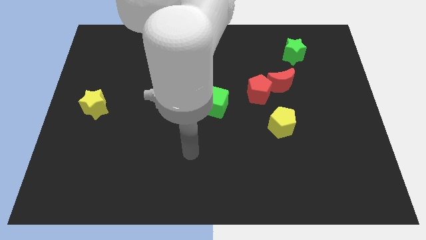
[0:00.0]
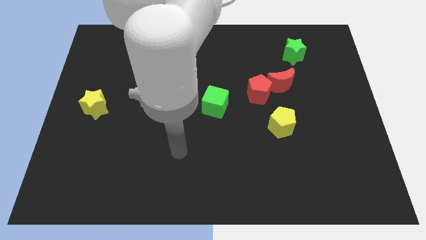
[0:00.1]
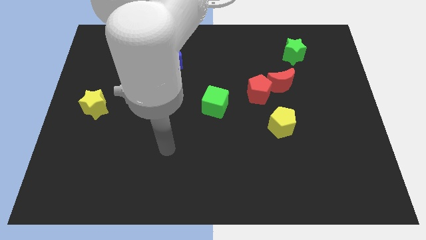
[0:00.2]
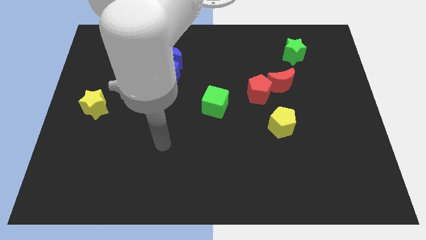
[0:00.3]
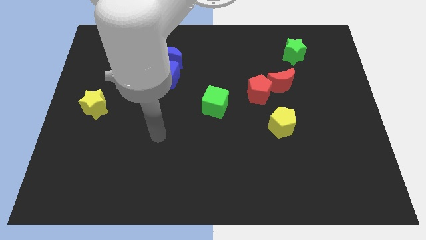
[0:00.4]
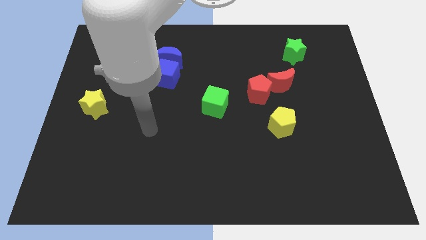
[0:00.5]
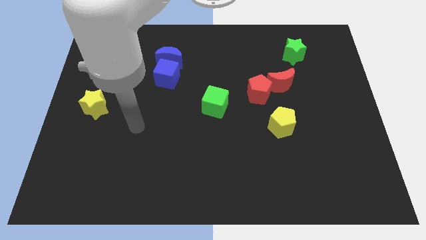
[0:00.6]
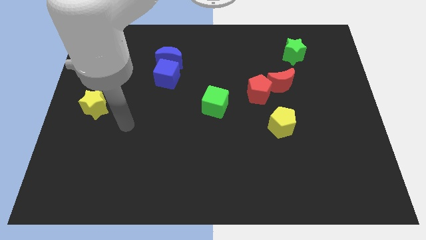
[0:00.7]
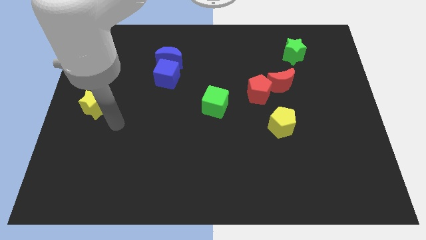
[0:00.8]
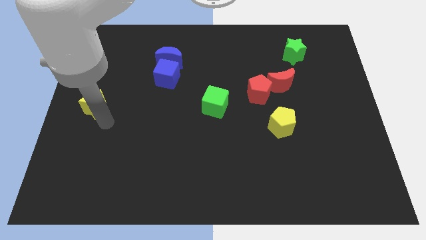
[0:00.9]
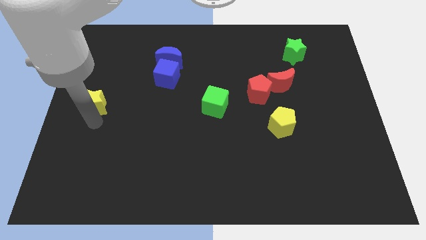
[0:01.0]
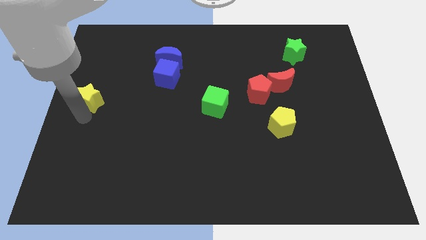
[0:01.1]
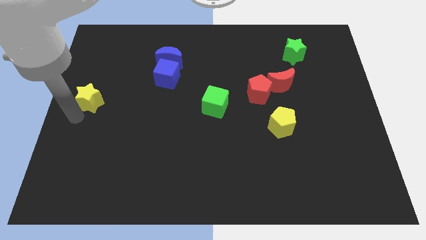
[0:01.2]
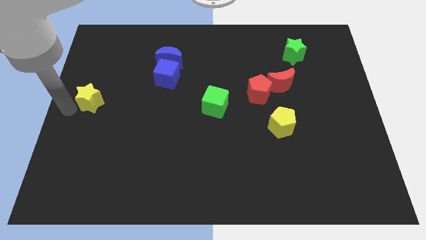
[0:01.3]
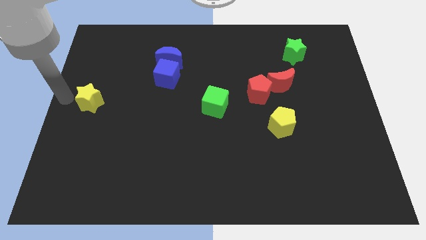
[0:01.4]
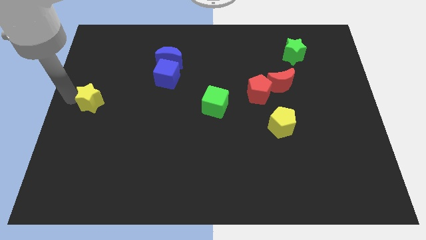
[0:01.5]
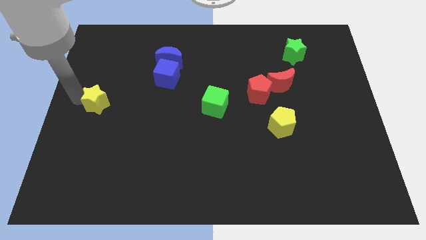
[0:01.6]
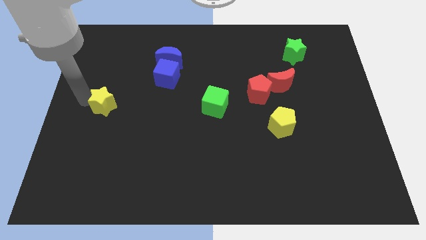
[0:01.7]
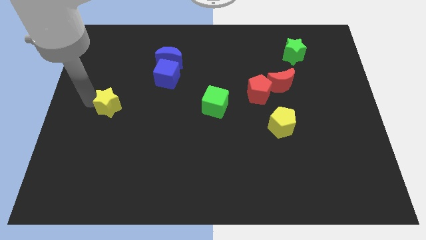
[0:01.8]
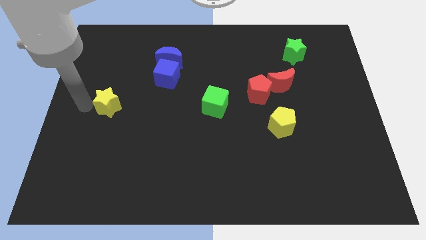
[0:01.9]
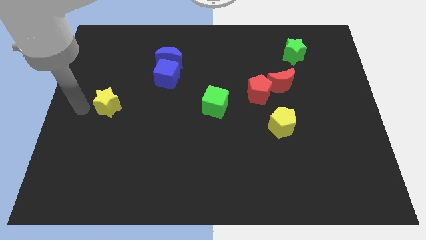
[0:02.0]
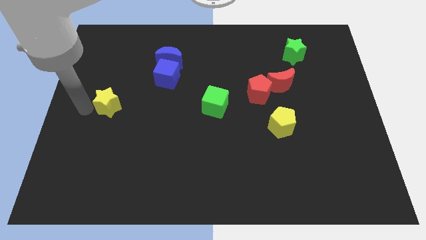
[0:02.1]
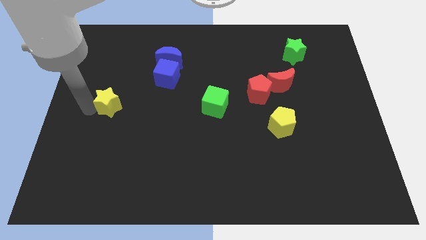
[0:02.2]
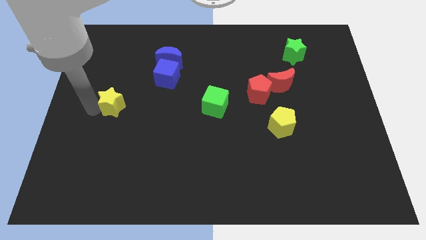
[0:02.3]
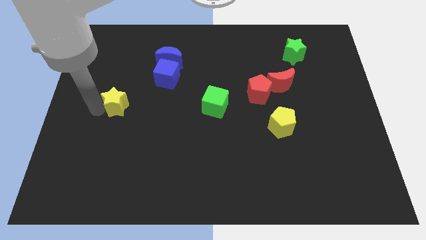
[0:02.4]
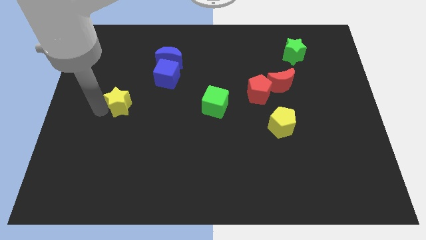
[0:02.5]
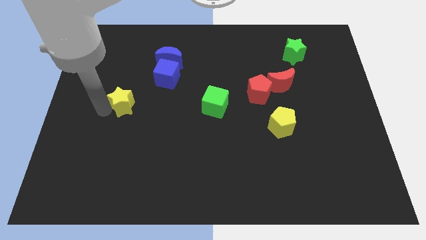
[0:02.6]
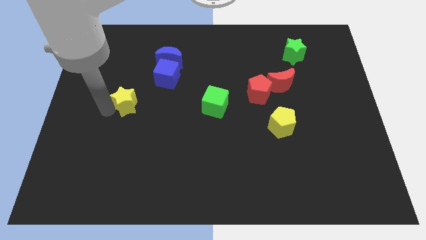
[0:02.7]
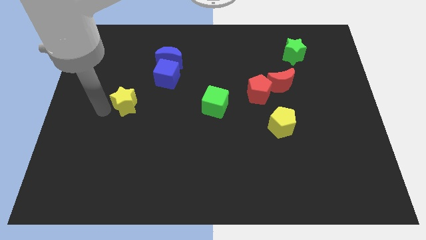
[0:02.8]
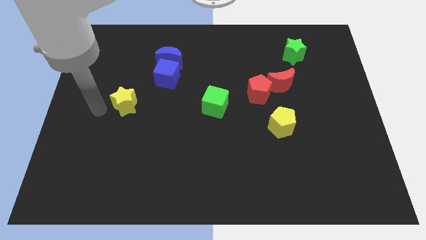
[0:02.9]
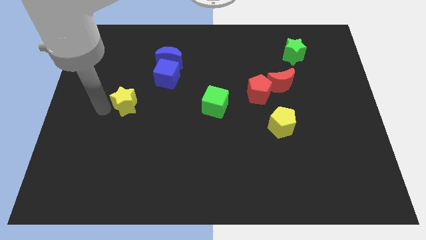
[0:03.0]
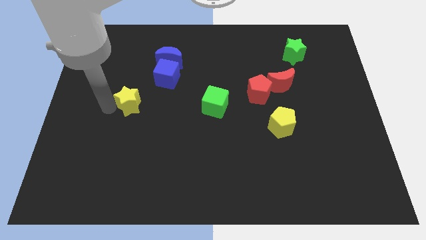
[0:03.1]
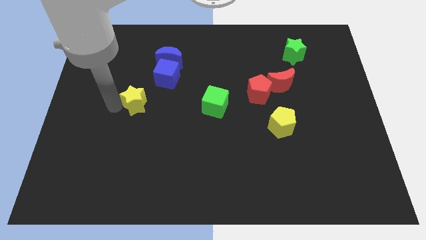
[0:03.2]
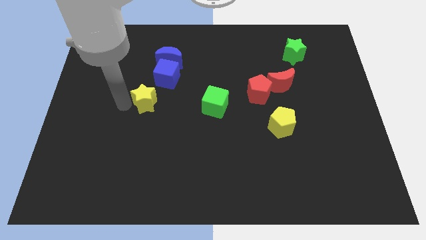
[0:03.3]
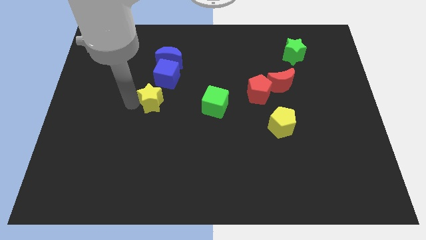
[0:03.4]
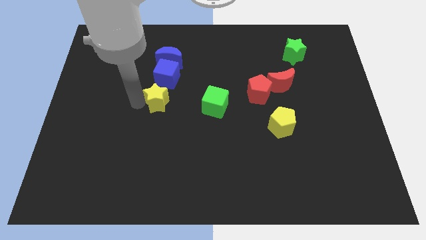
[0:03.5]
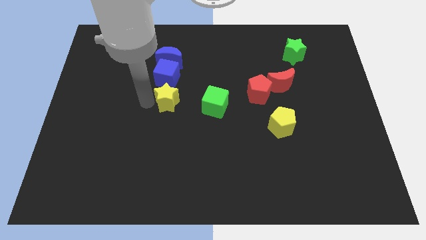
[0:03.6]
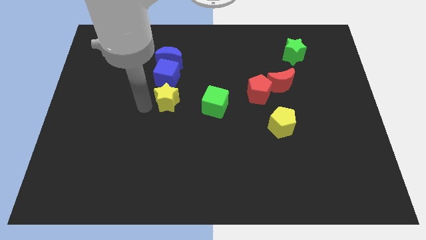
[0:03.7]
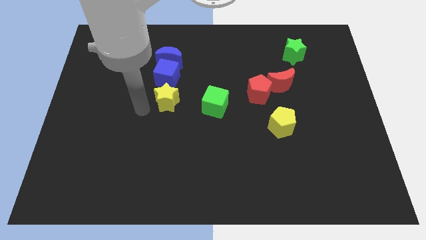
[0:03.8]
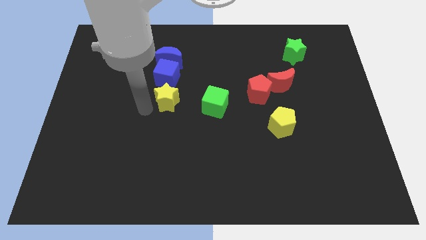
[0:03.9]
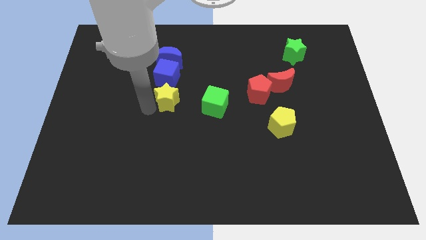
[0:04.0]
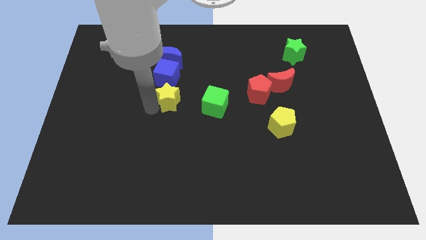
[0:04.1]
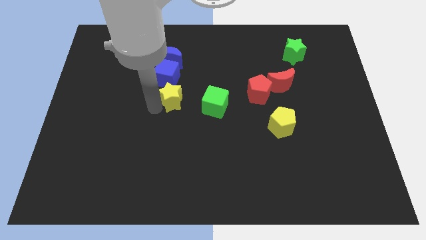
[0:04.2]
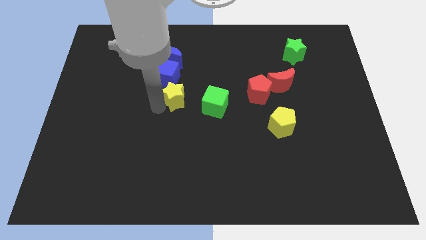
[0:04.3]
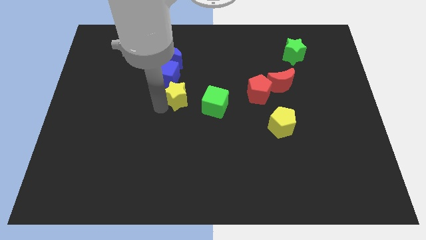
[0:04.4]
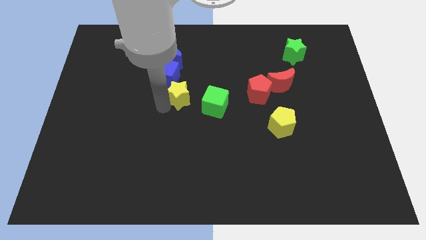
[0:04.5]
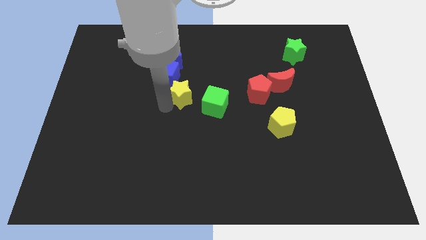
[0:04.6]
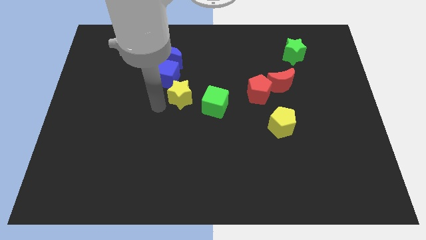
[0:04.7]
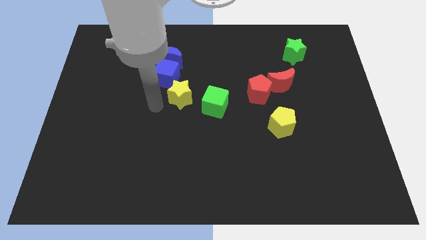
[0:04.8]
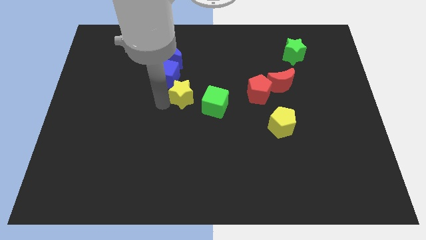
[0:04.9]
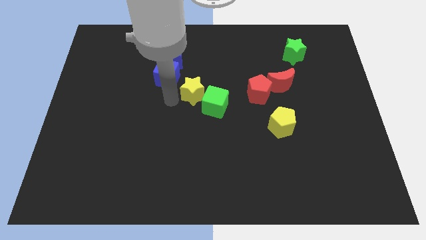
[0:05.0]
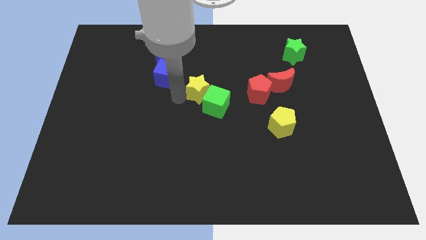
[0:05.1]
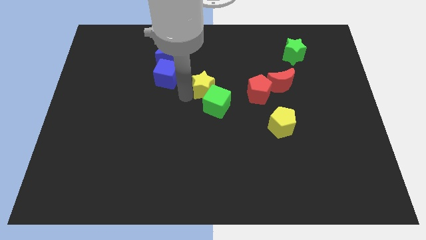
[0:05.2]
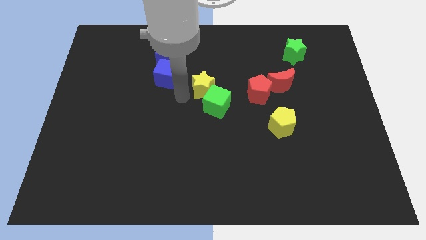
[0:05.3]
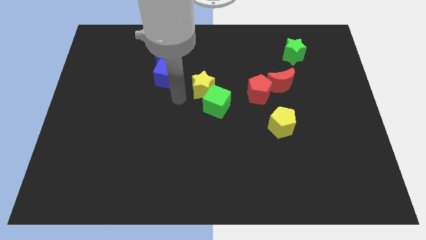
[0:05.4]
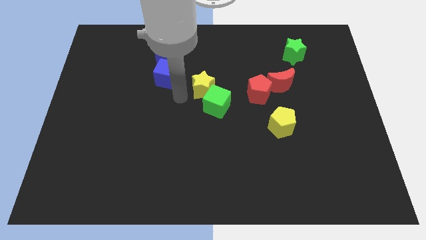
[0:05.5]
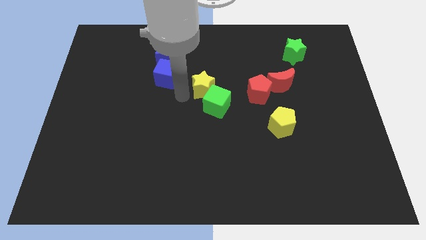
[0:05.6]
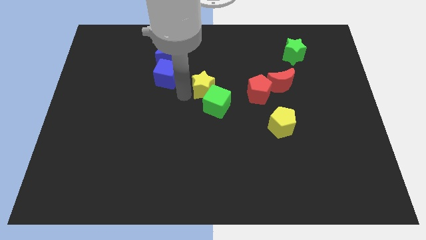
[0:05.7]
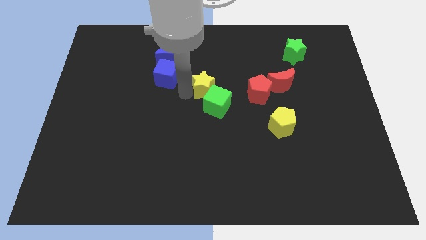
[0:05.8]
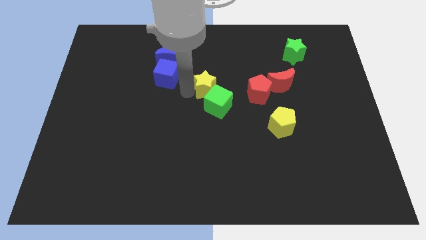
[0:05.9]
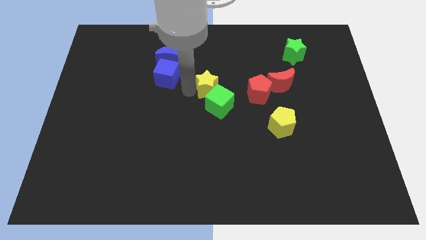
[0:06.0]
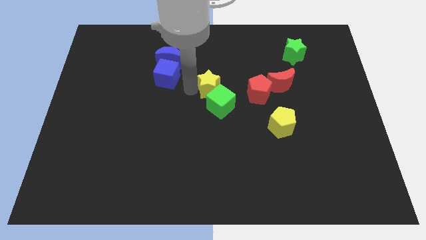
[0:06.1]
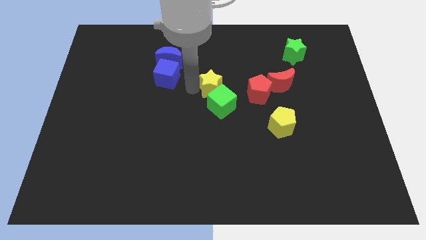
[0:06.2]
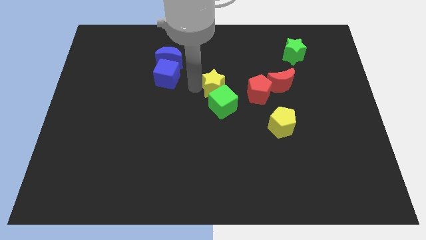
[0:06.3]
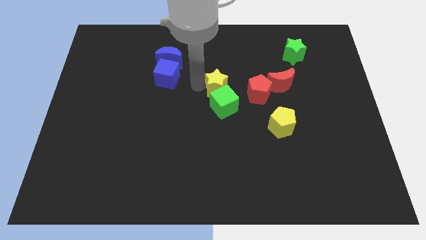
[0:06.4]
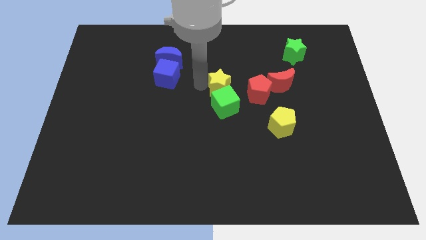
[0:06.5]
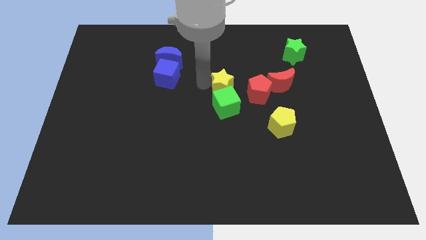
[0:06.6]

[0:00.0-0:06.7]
move the yellow star diagonally up and to the left of the red pentagon

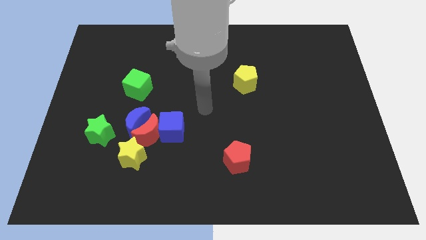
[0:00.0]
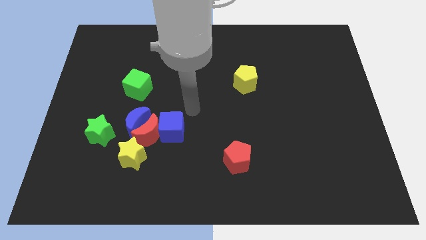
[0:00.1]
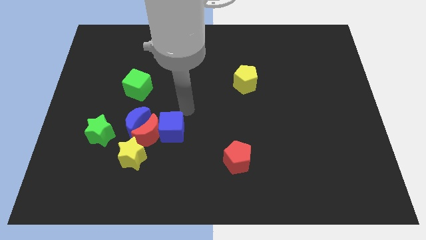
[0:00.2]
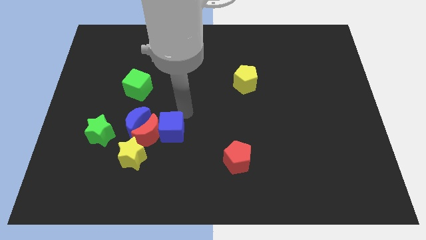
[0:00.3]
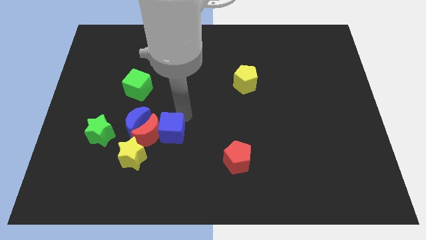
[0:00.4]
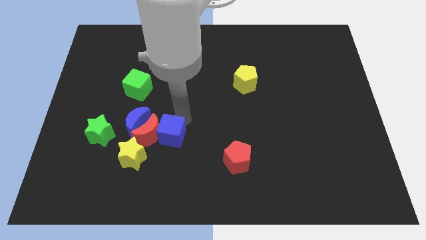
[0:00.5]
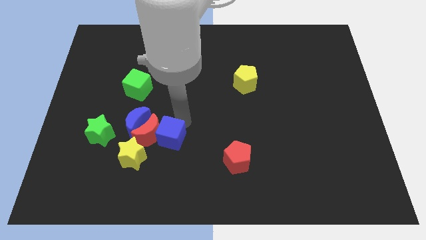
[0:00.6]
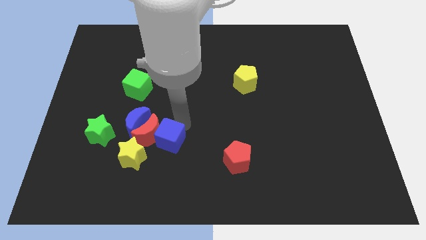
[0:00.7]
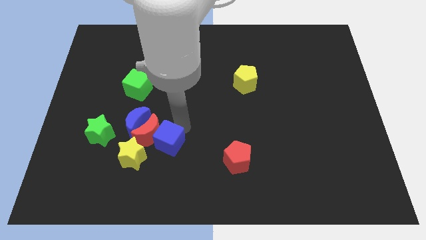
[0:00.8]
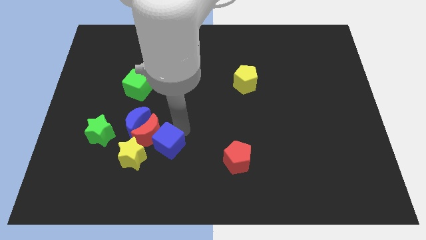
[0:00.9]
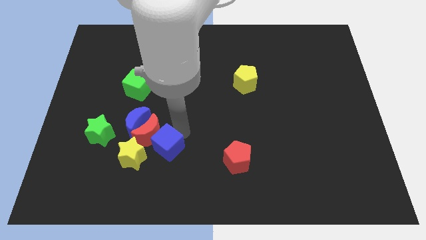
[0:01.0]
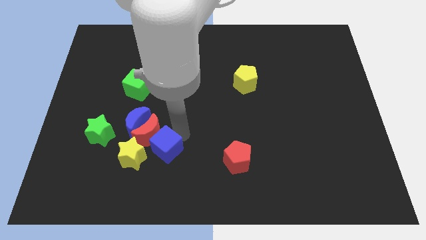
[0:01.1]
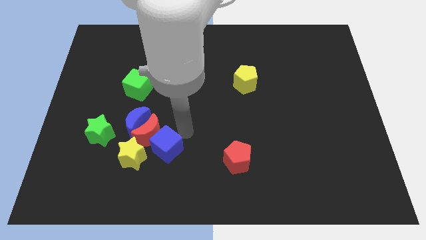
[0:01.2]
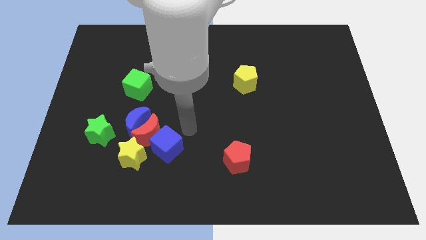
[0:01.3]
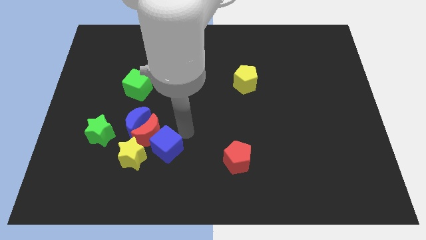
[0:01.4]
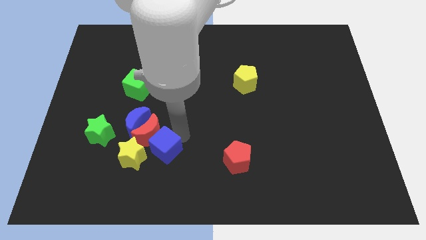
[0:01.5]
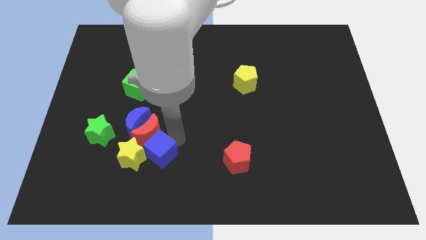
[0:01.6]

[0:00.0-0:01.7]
push the blue cube to the bottom right of the yellow star
